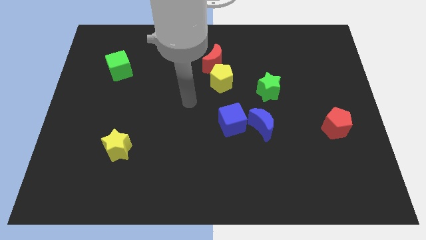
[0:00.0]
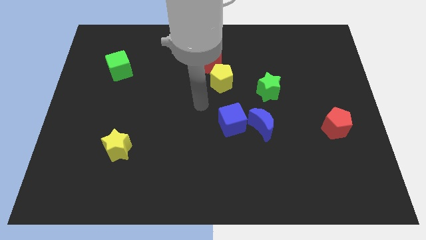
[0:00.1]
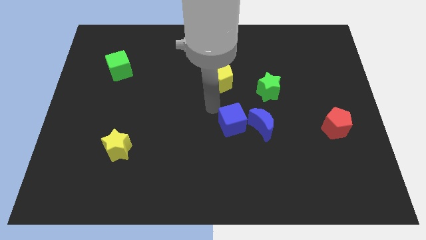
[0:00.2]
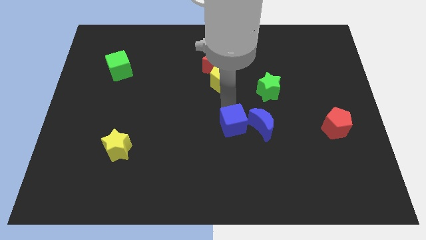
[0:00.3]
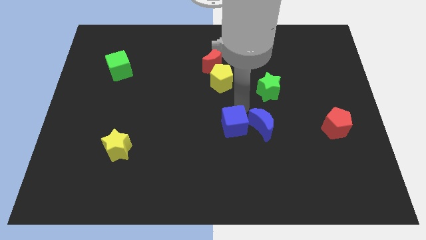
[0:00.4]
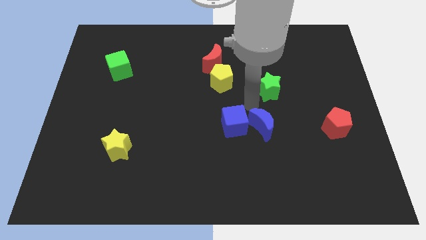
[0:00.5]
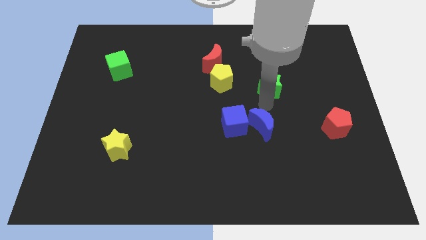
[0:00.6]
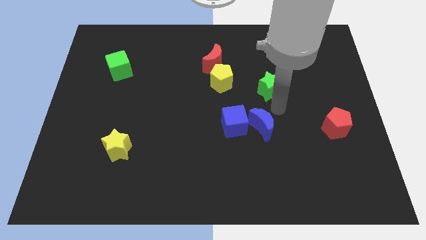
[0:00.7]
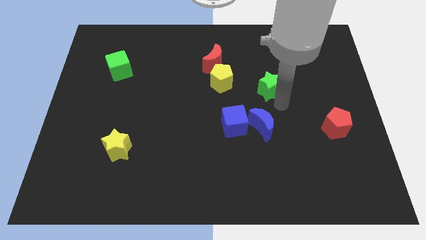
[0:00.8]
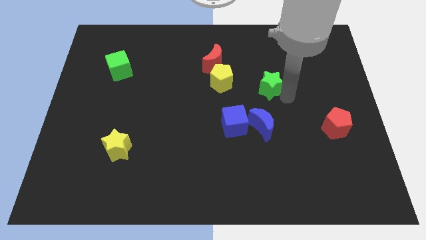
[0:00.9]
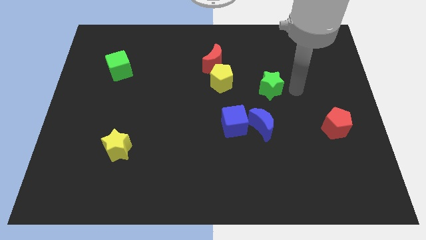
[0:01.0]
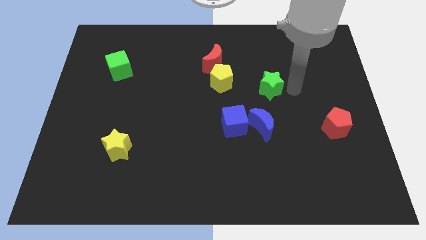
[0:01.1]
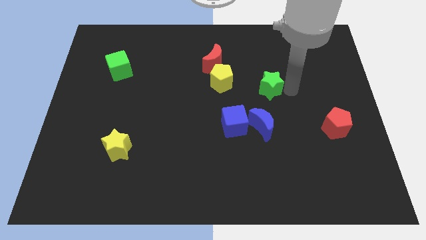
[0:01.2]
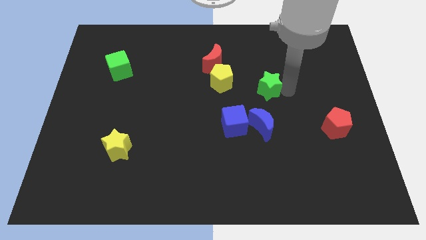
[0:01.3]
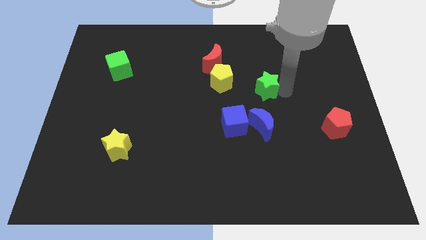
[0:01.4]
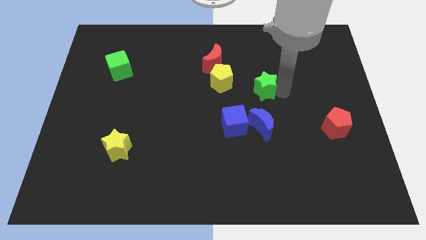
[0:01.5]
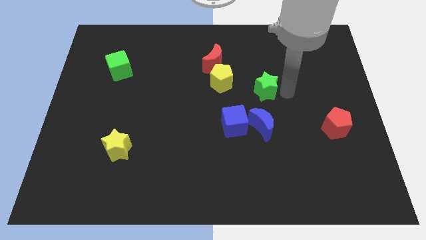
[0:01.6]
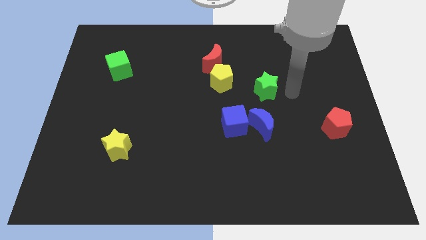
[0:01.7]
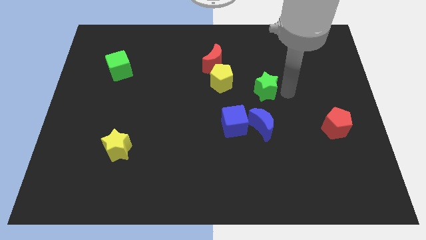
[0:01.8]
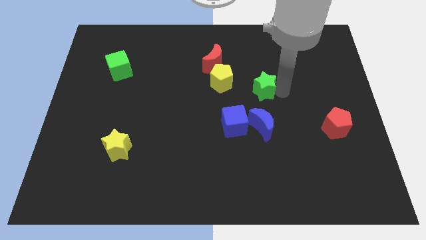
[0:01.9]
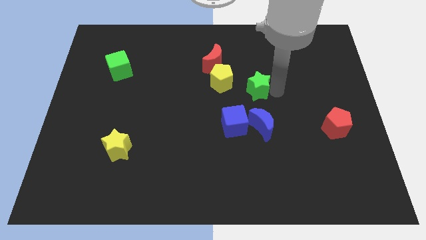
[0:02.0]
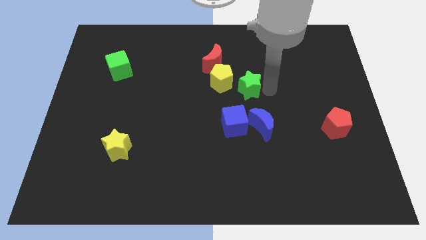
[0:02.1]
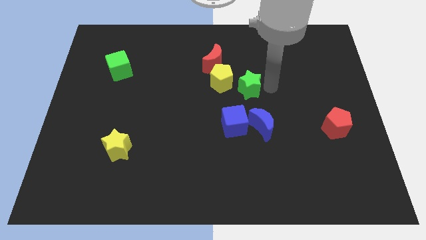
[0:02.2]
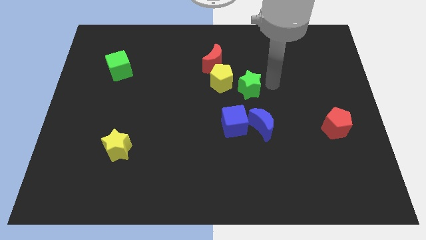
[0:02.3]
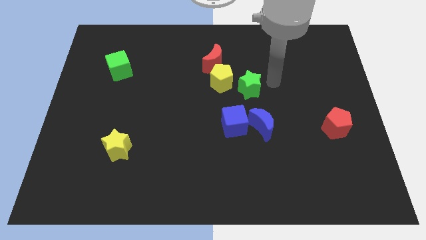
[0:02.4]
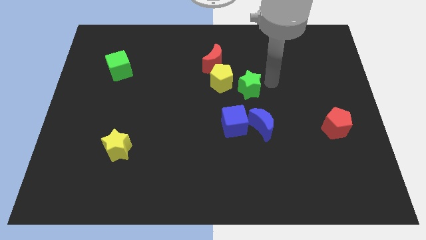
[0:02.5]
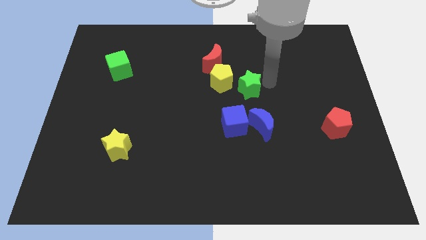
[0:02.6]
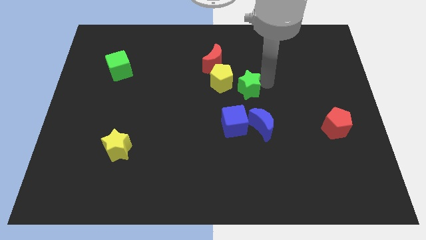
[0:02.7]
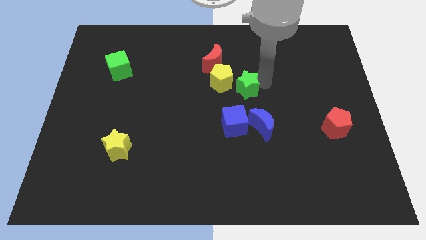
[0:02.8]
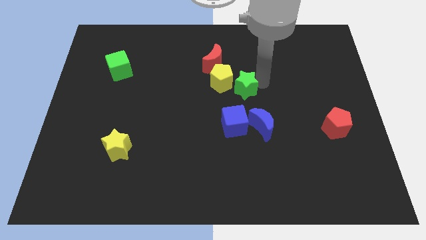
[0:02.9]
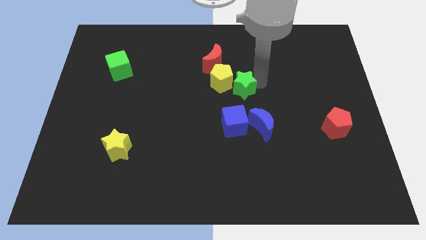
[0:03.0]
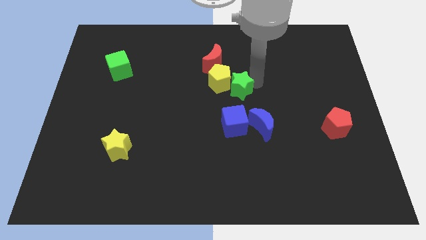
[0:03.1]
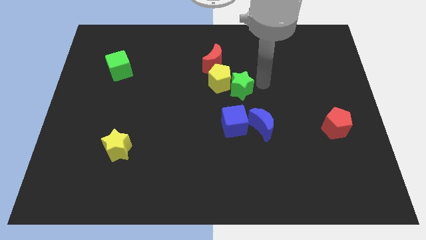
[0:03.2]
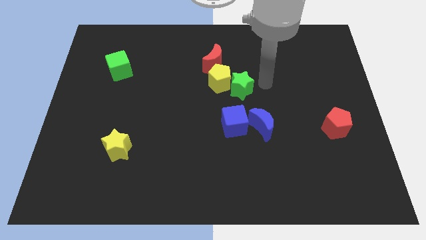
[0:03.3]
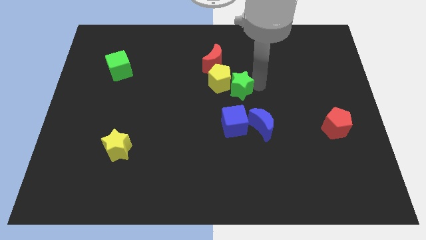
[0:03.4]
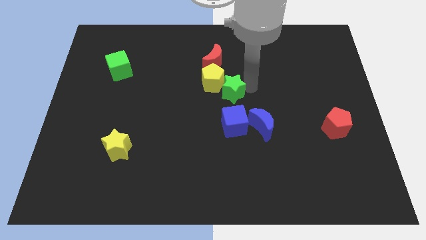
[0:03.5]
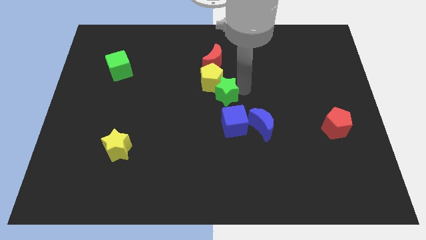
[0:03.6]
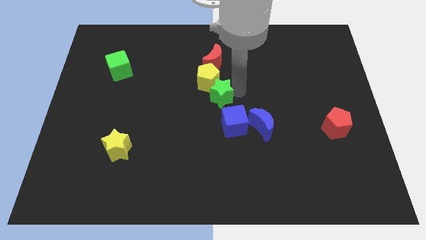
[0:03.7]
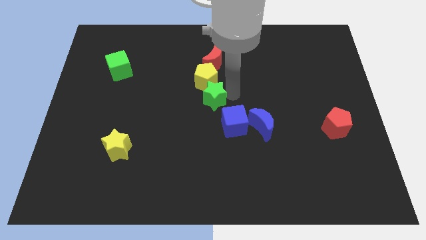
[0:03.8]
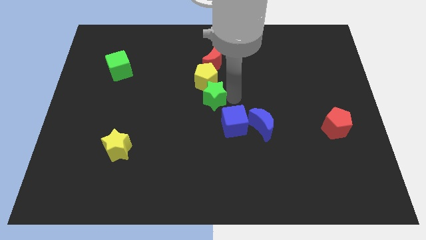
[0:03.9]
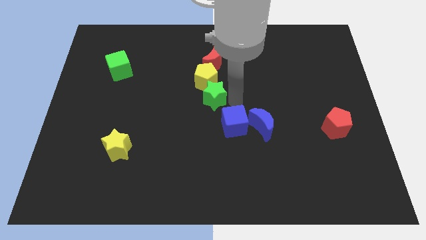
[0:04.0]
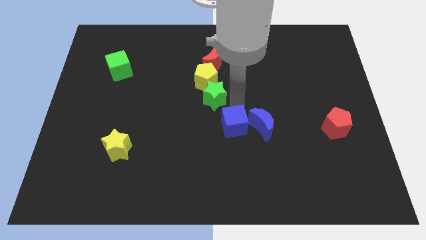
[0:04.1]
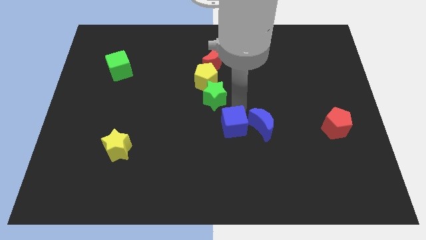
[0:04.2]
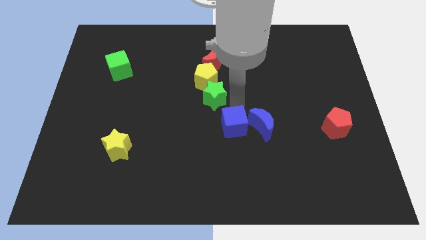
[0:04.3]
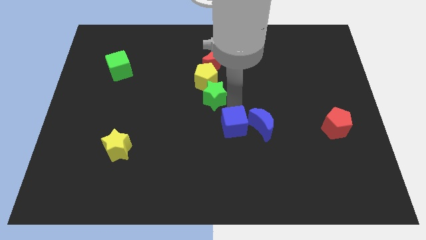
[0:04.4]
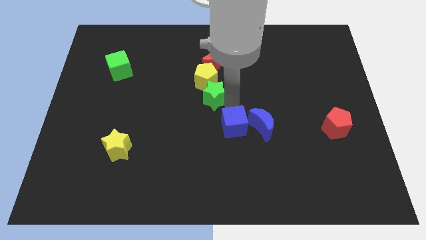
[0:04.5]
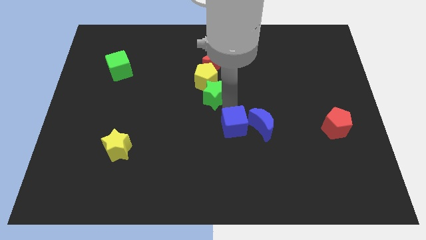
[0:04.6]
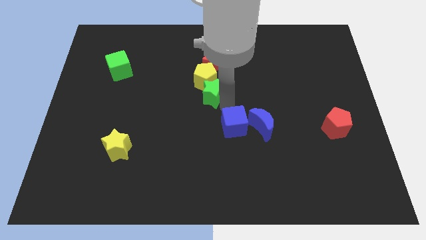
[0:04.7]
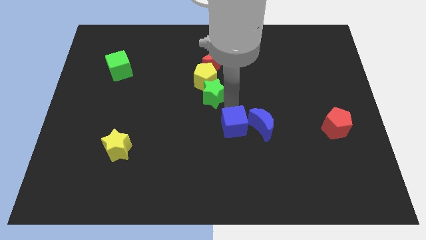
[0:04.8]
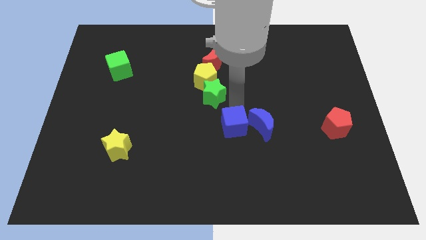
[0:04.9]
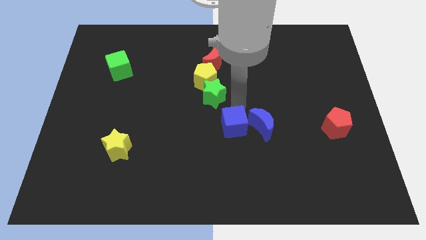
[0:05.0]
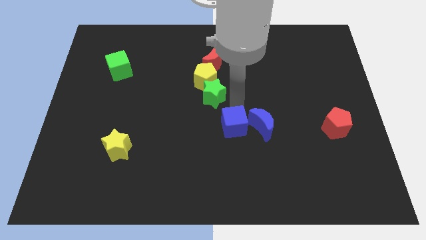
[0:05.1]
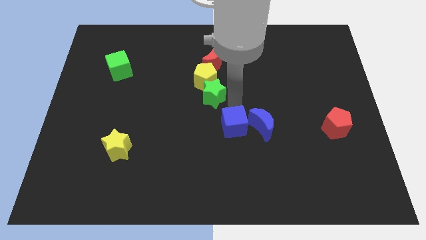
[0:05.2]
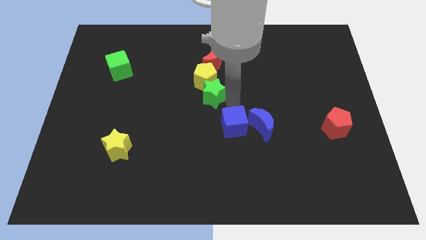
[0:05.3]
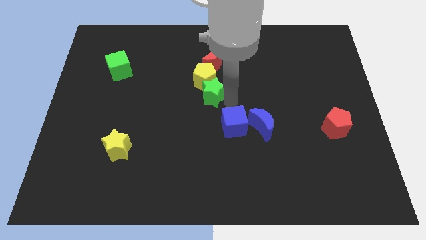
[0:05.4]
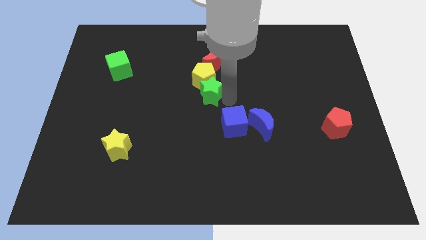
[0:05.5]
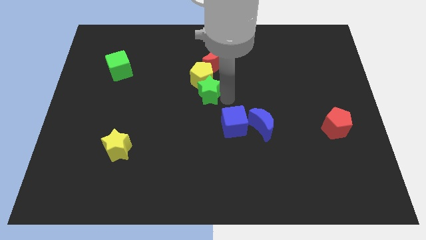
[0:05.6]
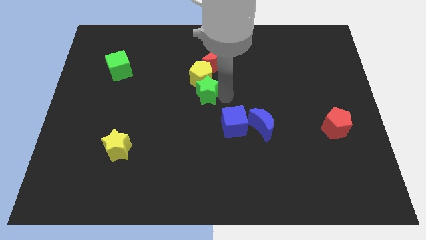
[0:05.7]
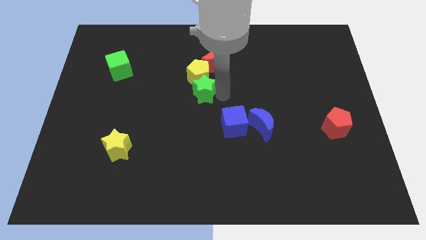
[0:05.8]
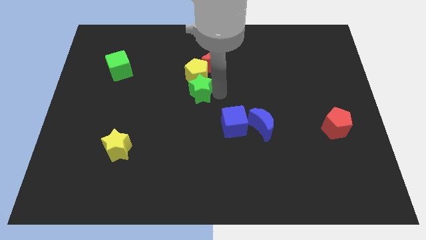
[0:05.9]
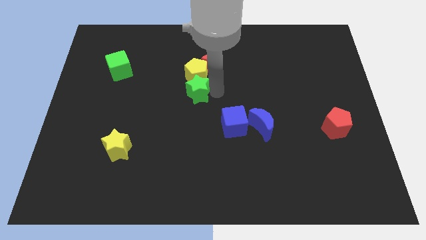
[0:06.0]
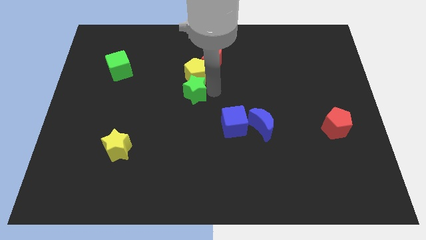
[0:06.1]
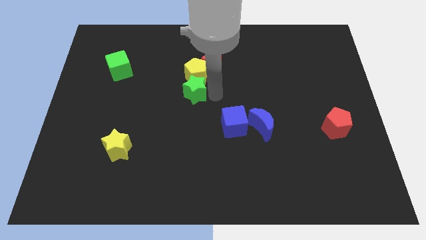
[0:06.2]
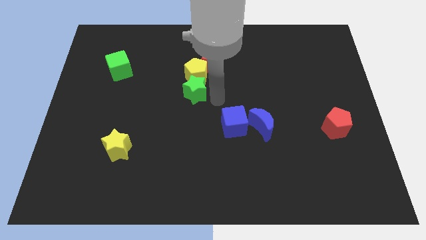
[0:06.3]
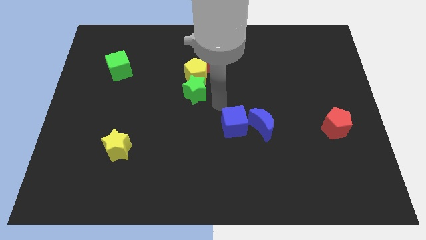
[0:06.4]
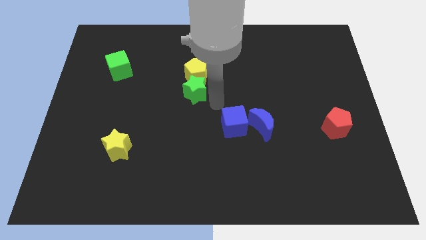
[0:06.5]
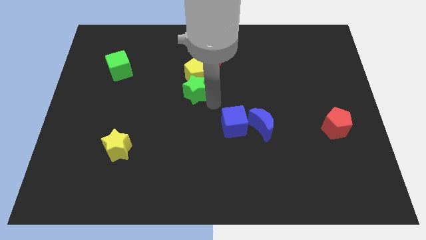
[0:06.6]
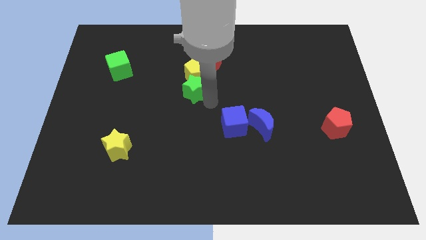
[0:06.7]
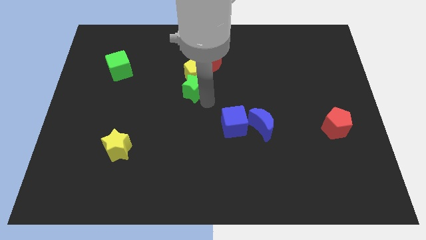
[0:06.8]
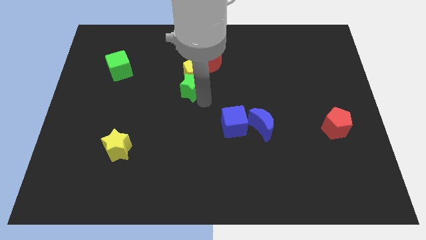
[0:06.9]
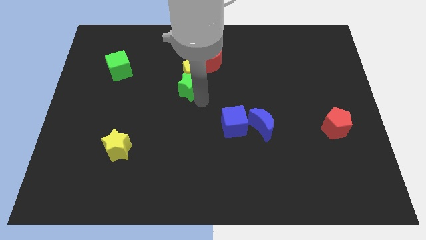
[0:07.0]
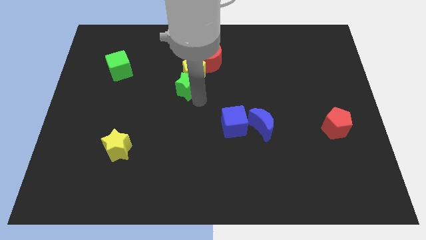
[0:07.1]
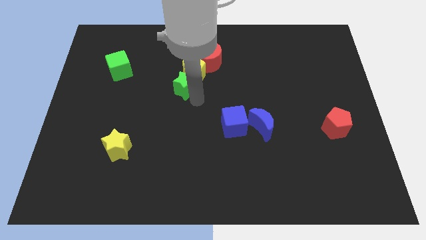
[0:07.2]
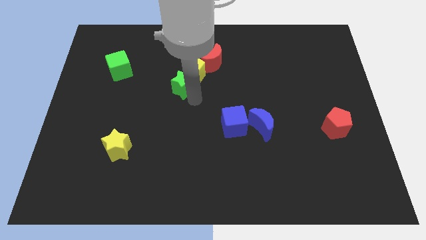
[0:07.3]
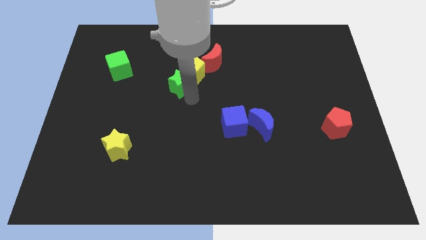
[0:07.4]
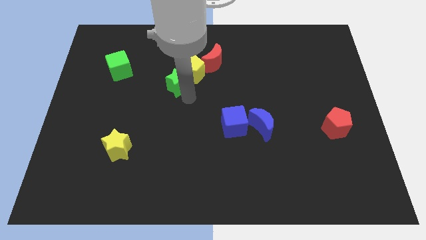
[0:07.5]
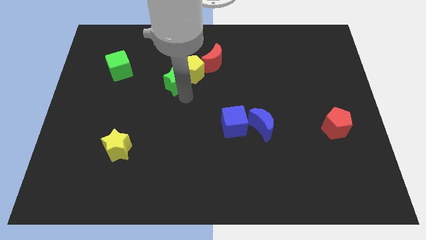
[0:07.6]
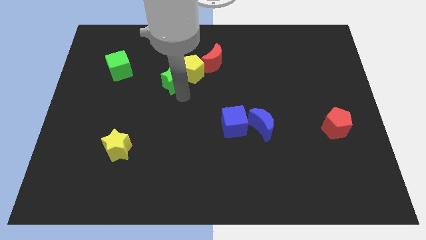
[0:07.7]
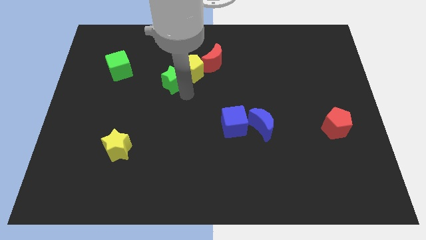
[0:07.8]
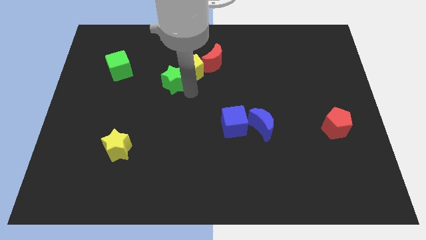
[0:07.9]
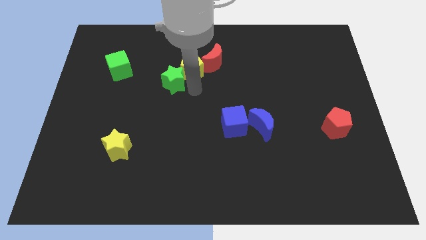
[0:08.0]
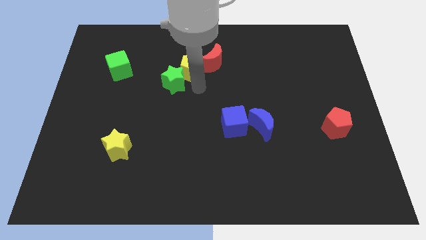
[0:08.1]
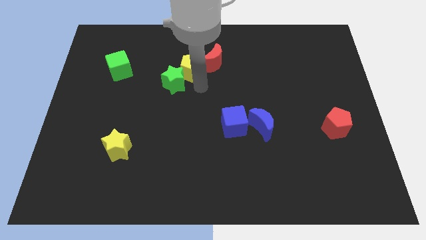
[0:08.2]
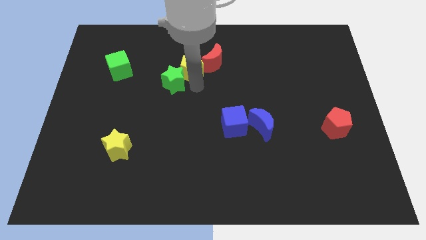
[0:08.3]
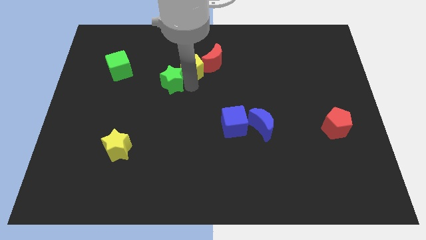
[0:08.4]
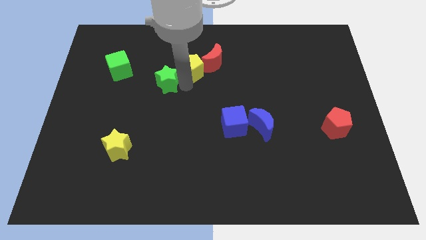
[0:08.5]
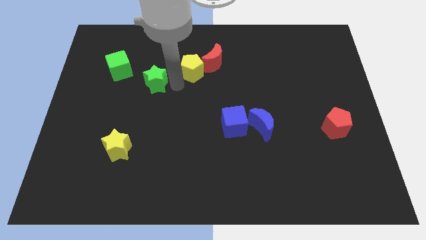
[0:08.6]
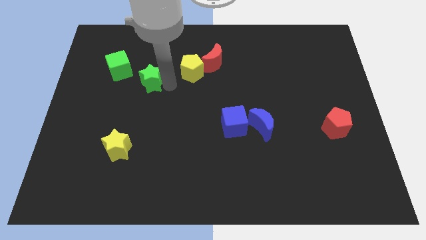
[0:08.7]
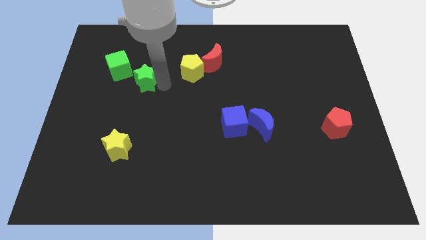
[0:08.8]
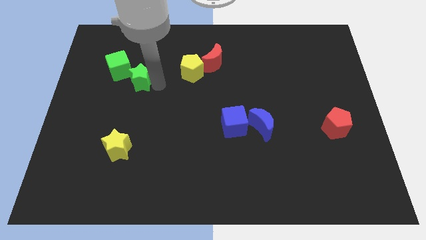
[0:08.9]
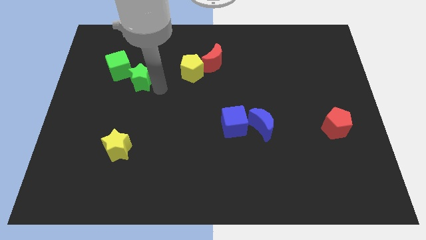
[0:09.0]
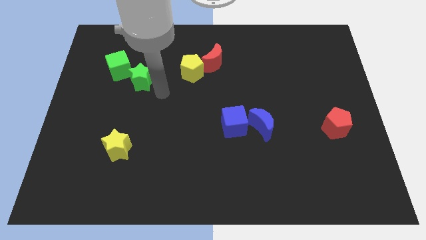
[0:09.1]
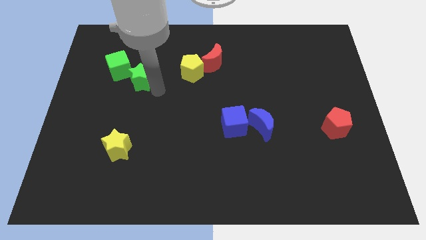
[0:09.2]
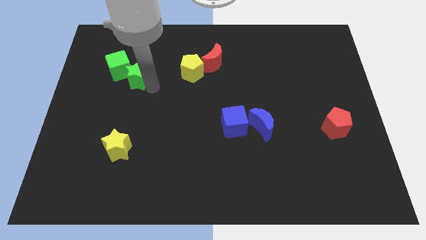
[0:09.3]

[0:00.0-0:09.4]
put the green star next to the green cube
